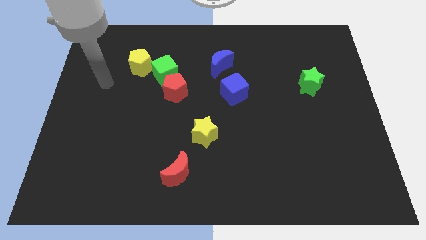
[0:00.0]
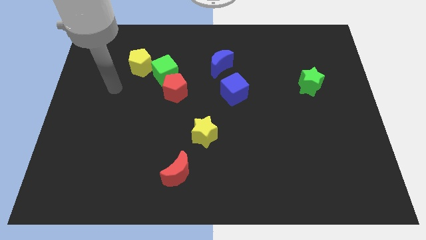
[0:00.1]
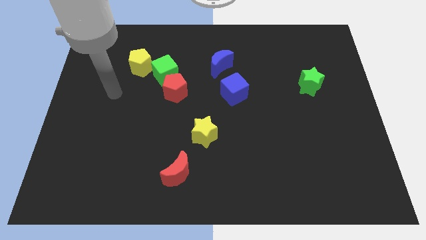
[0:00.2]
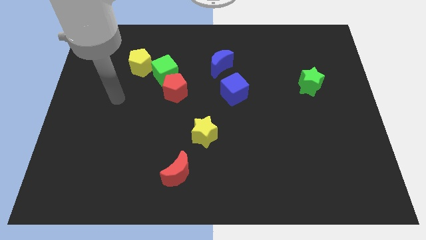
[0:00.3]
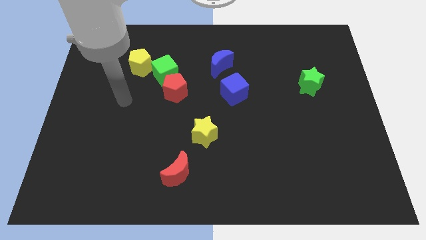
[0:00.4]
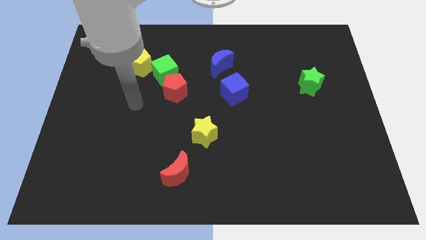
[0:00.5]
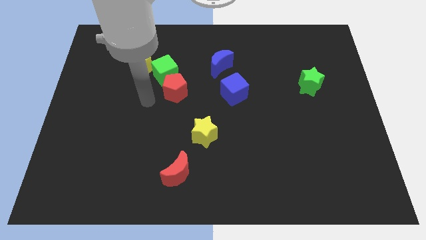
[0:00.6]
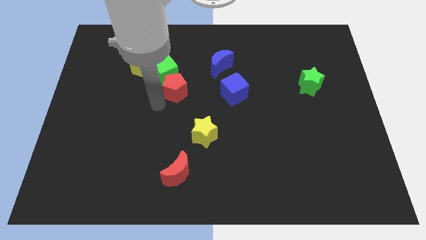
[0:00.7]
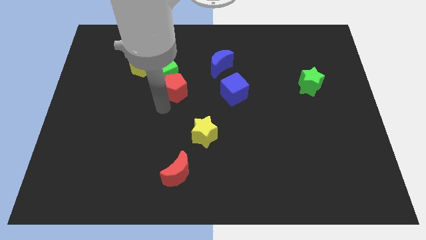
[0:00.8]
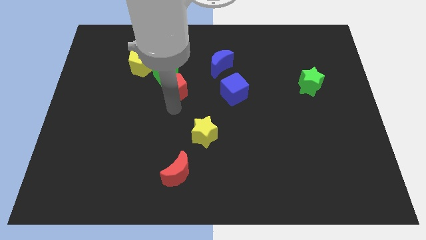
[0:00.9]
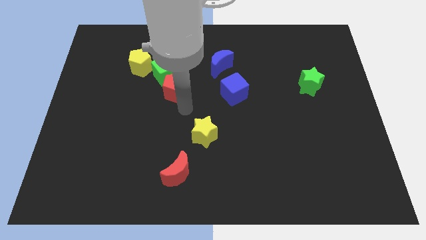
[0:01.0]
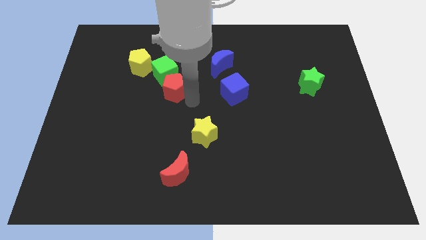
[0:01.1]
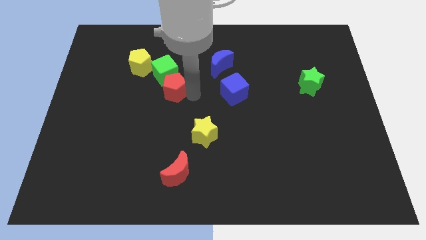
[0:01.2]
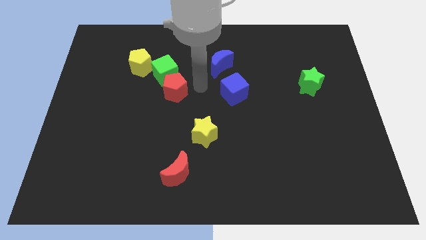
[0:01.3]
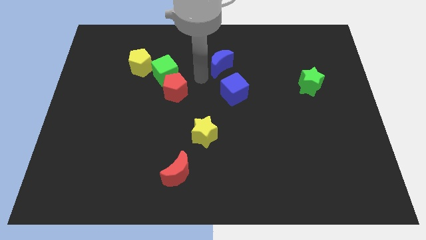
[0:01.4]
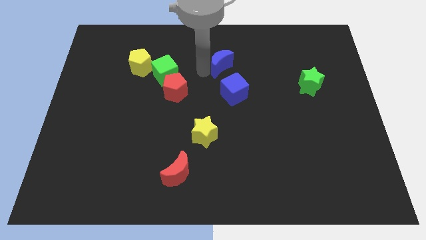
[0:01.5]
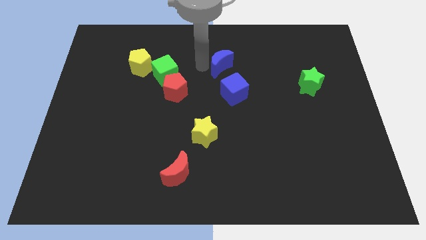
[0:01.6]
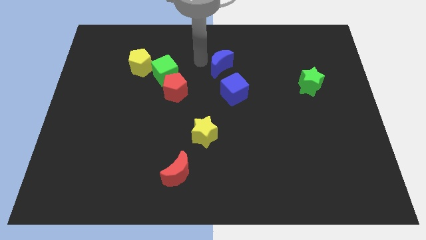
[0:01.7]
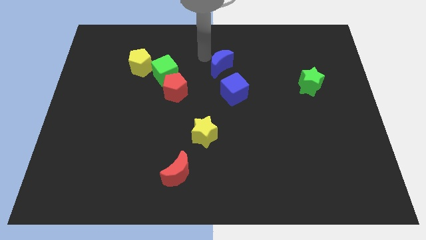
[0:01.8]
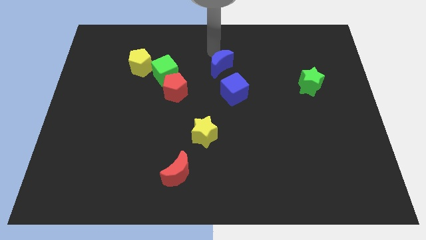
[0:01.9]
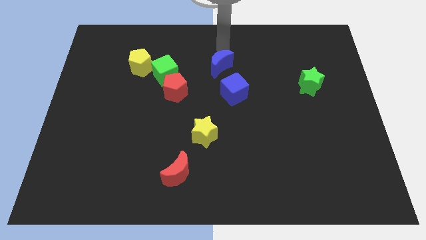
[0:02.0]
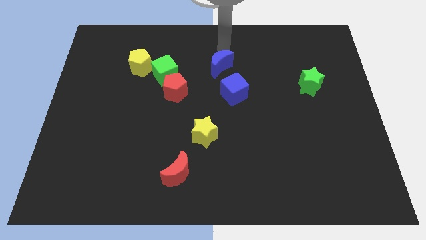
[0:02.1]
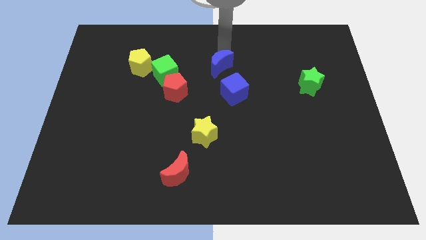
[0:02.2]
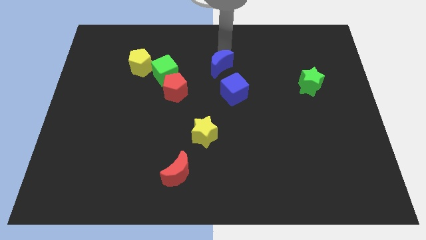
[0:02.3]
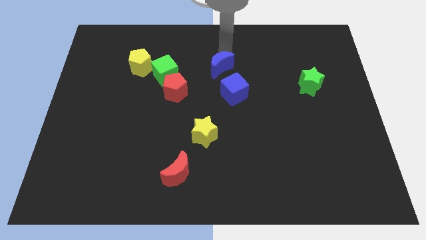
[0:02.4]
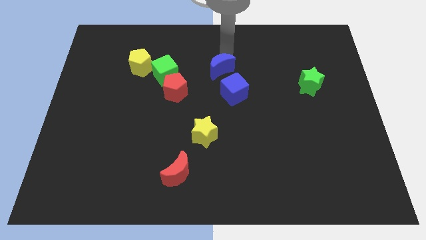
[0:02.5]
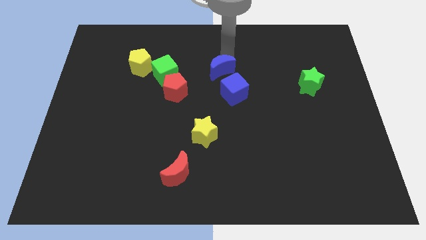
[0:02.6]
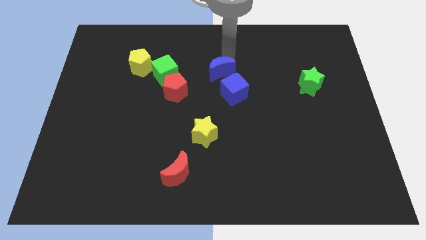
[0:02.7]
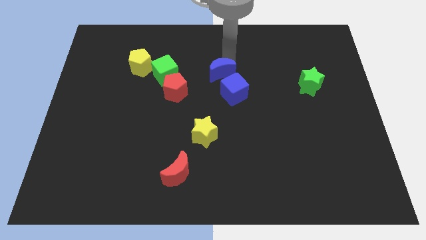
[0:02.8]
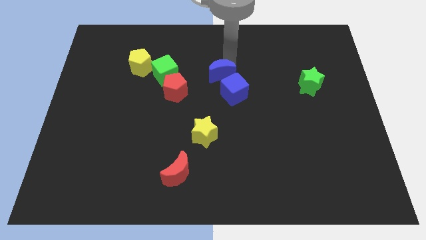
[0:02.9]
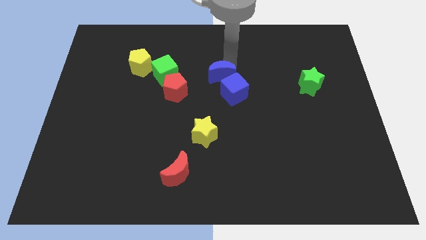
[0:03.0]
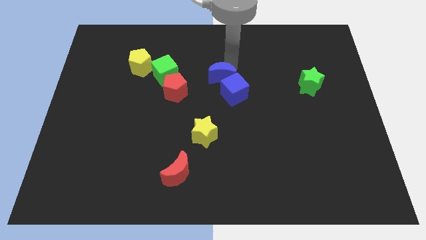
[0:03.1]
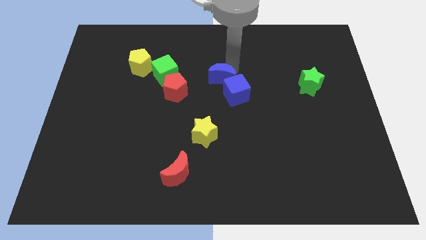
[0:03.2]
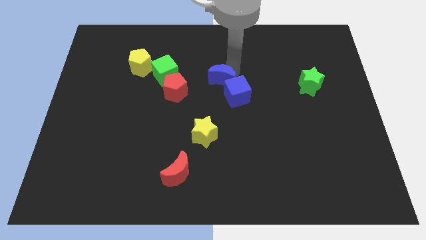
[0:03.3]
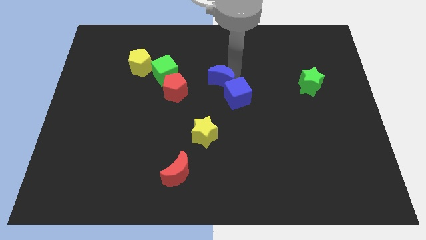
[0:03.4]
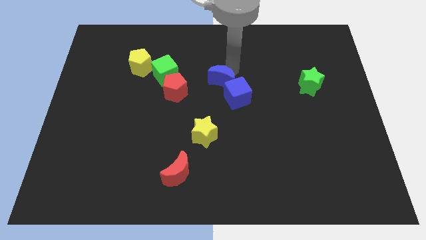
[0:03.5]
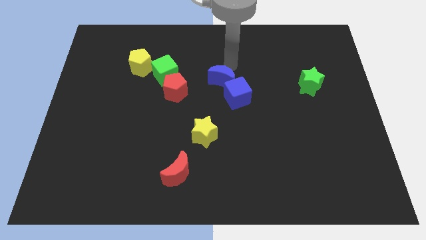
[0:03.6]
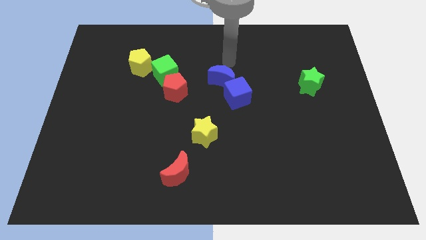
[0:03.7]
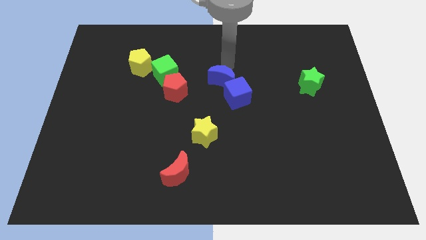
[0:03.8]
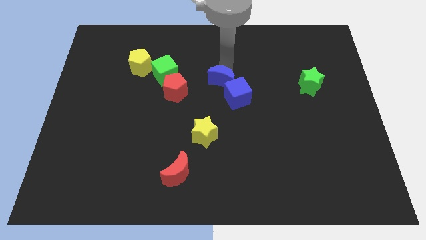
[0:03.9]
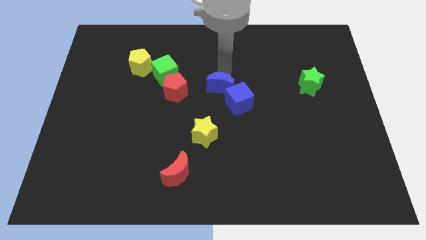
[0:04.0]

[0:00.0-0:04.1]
move the blue moon down somewhat

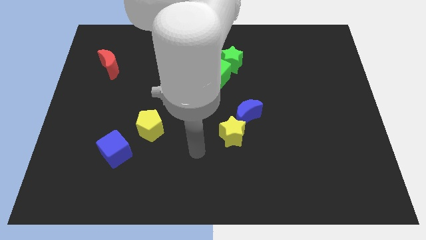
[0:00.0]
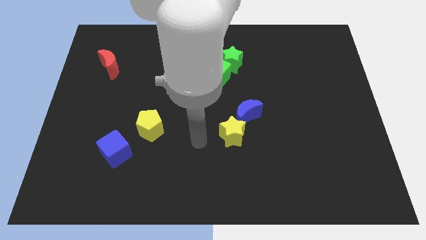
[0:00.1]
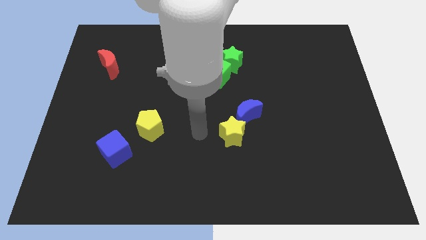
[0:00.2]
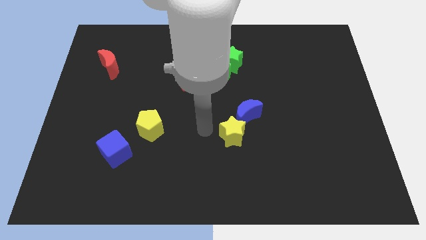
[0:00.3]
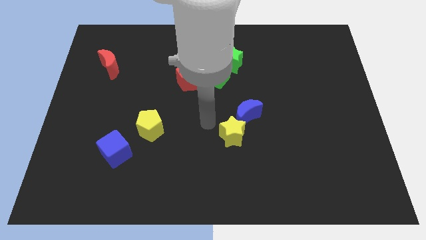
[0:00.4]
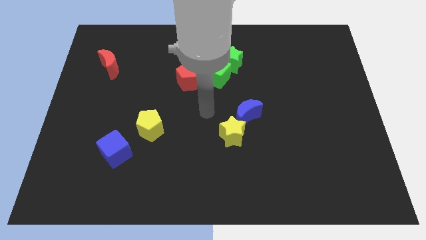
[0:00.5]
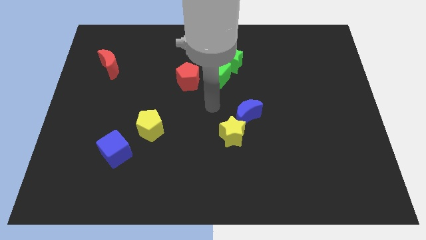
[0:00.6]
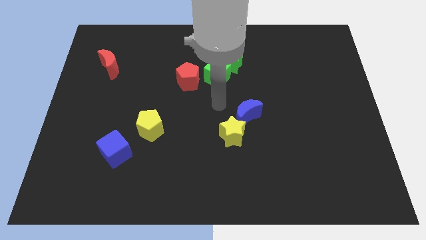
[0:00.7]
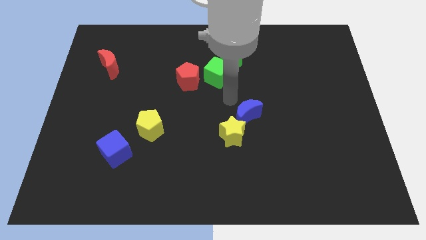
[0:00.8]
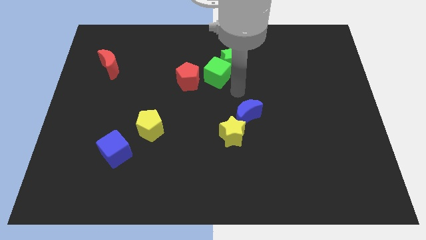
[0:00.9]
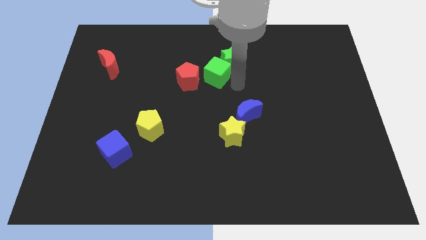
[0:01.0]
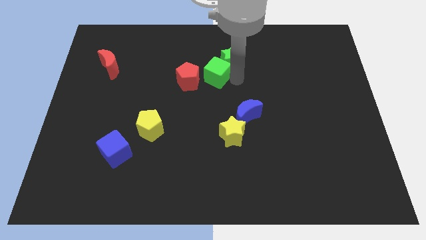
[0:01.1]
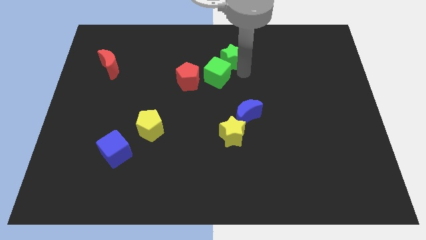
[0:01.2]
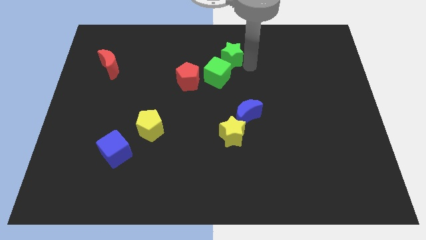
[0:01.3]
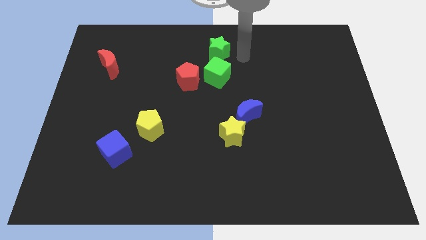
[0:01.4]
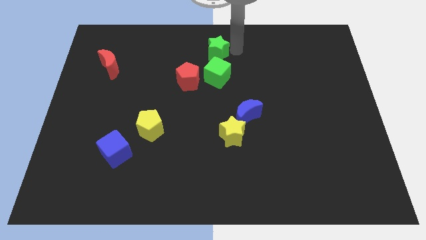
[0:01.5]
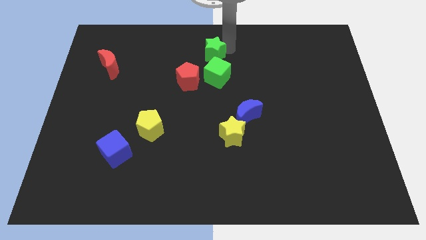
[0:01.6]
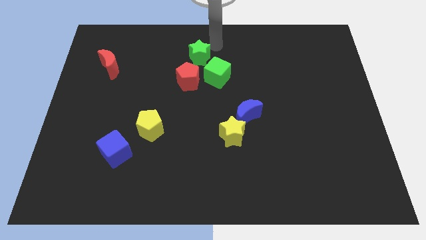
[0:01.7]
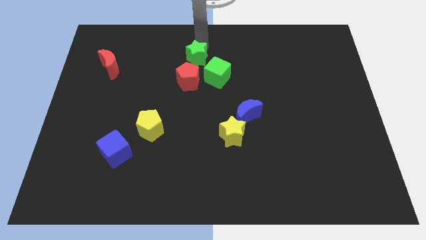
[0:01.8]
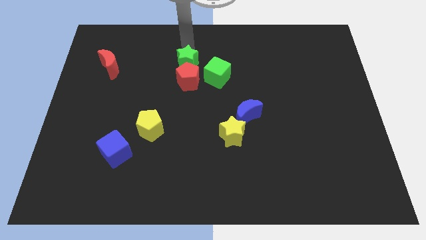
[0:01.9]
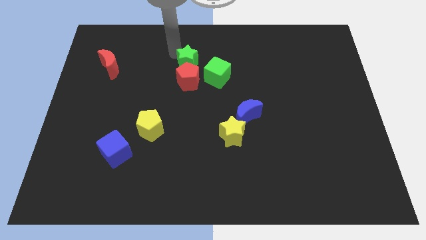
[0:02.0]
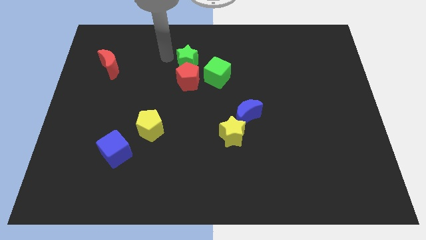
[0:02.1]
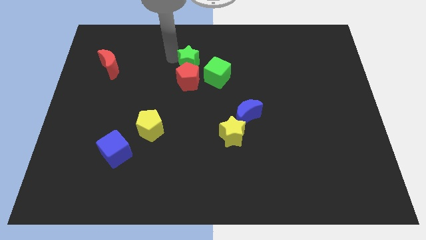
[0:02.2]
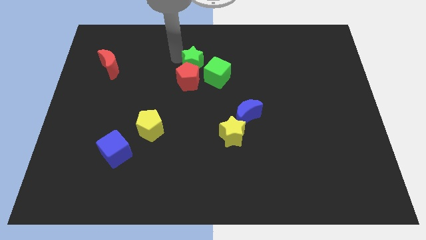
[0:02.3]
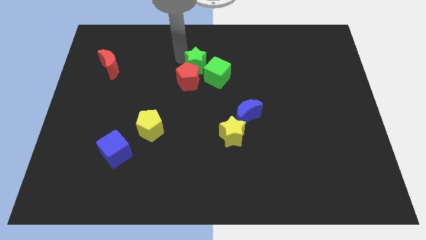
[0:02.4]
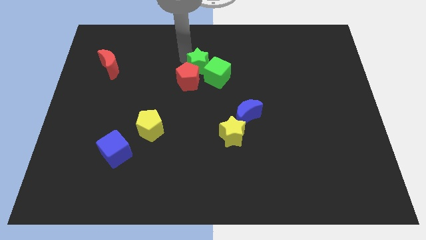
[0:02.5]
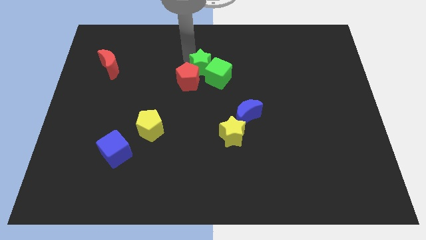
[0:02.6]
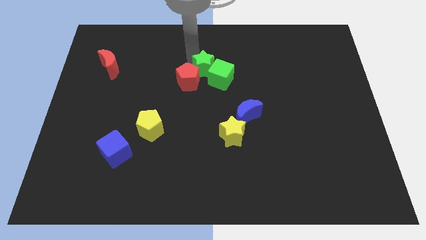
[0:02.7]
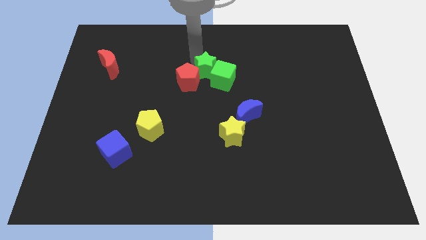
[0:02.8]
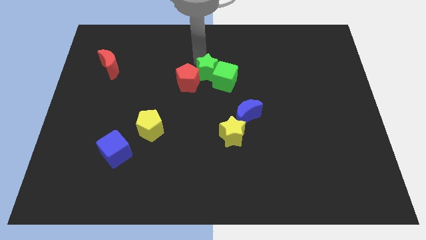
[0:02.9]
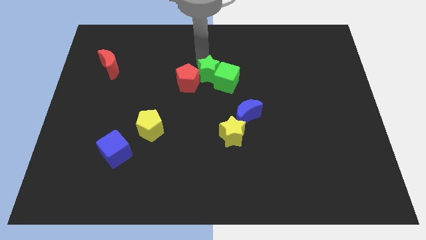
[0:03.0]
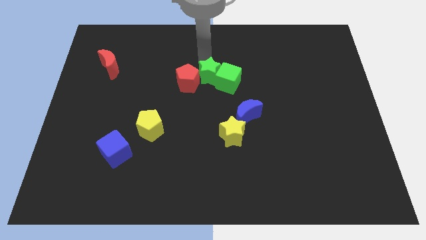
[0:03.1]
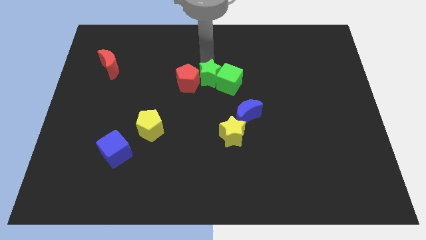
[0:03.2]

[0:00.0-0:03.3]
push the green star downwards and to the left slightly

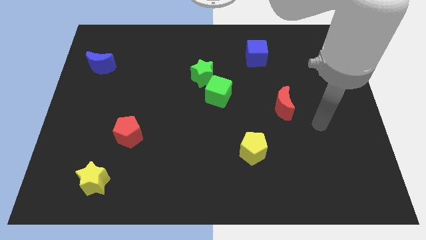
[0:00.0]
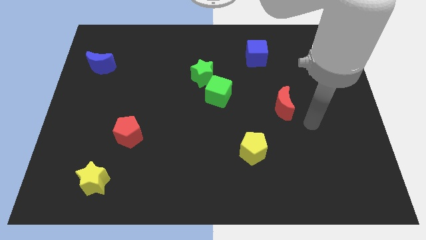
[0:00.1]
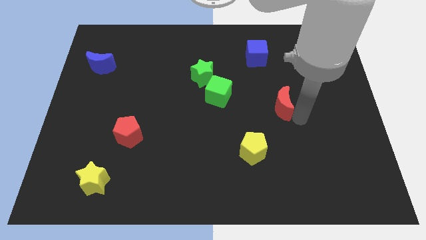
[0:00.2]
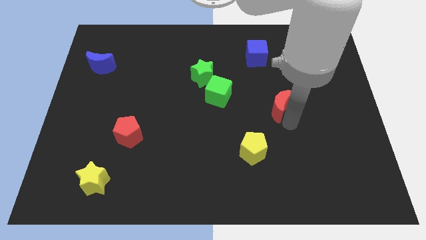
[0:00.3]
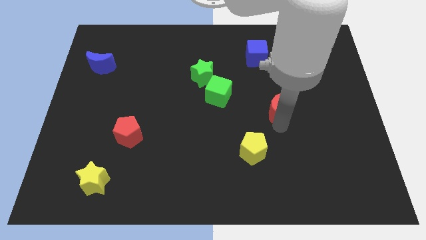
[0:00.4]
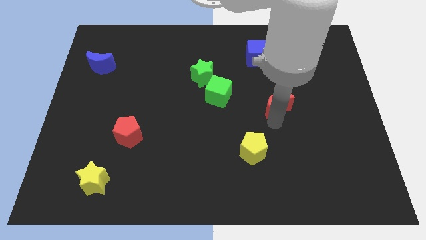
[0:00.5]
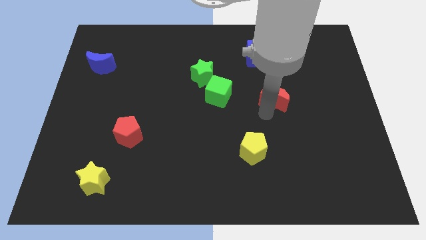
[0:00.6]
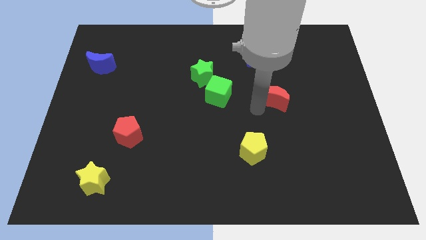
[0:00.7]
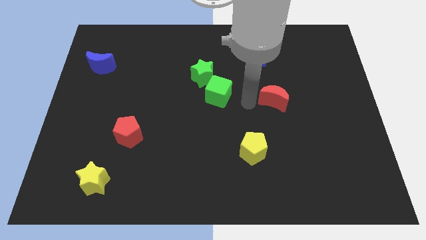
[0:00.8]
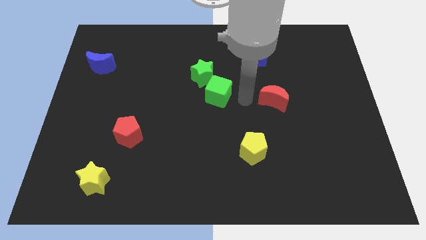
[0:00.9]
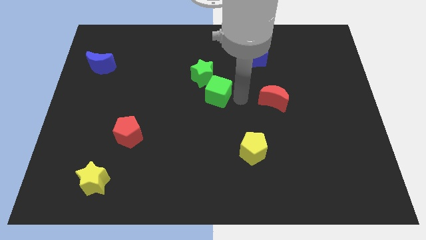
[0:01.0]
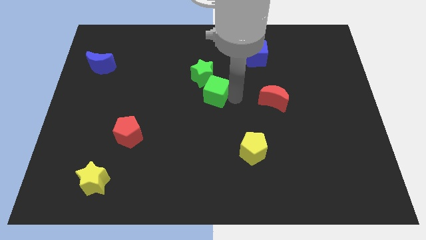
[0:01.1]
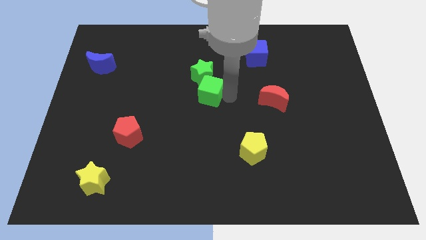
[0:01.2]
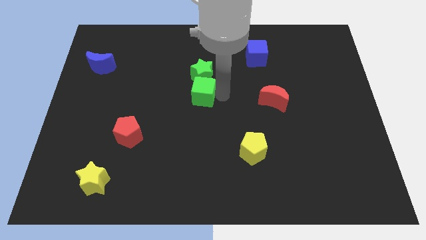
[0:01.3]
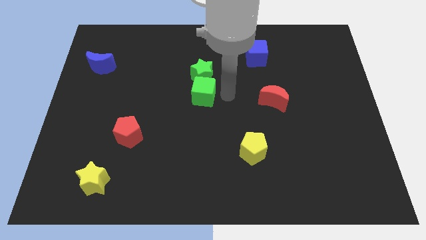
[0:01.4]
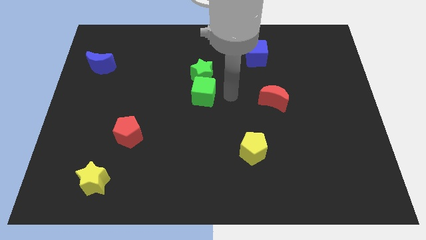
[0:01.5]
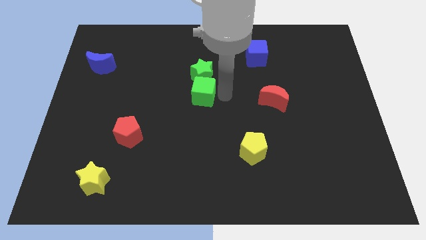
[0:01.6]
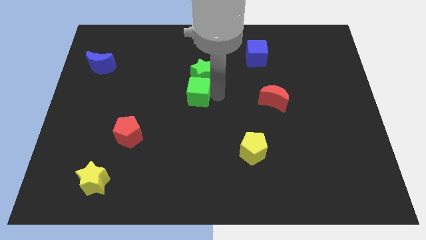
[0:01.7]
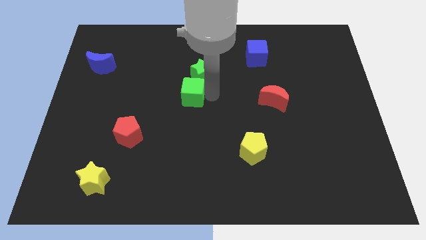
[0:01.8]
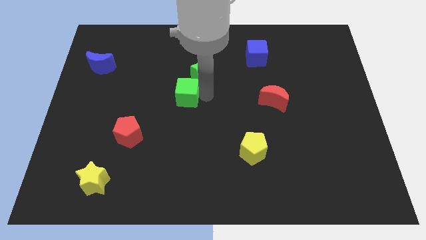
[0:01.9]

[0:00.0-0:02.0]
move the green cube somewhat left
